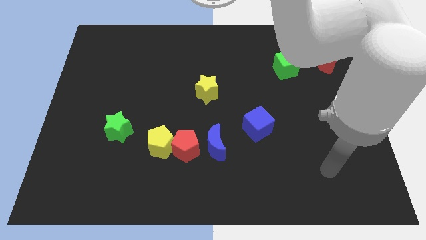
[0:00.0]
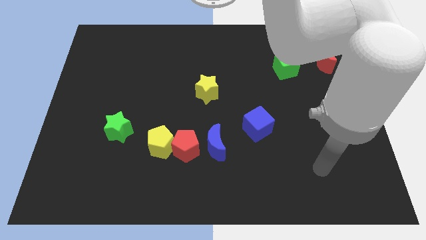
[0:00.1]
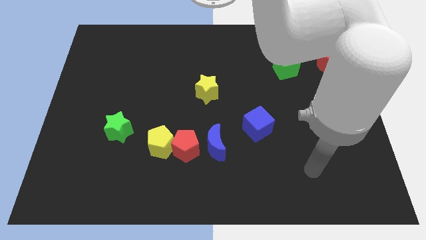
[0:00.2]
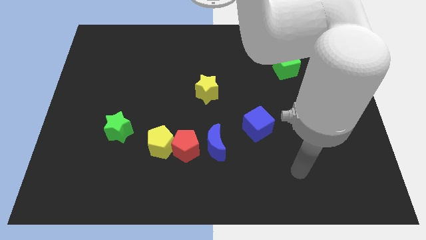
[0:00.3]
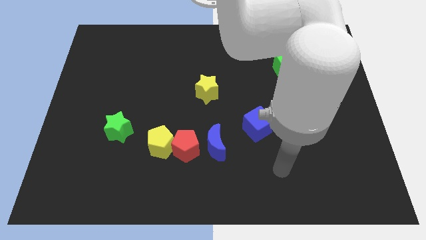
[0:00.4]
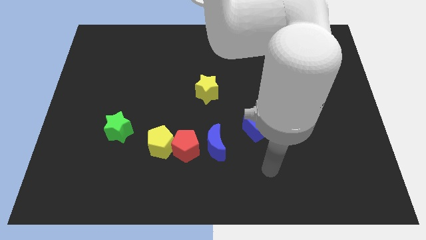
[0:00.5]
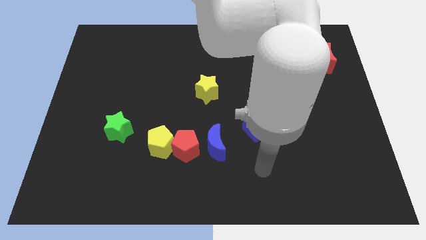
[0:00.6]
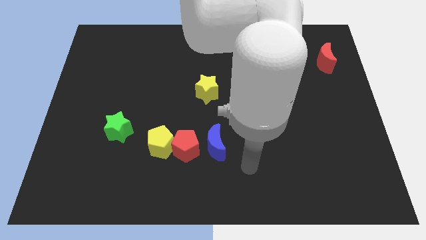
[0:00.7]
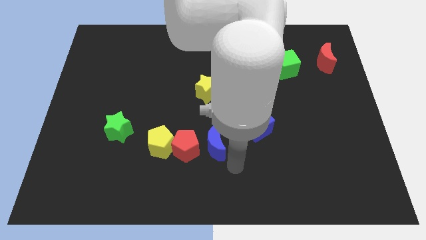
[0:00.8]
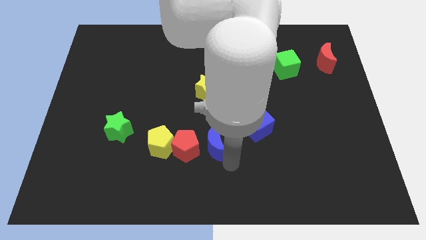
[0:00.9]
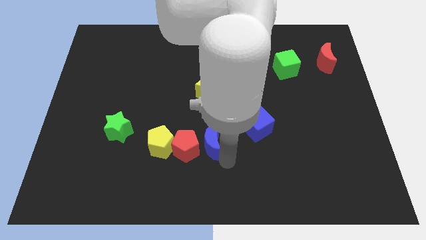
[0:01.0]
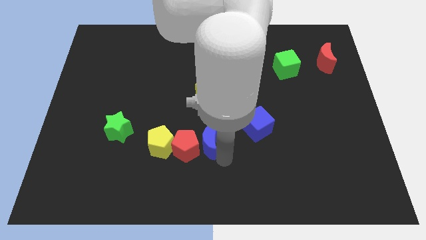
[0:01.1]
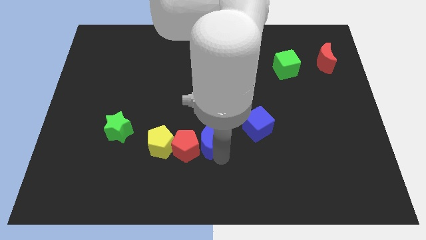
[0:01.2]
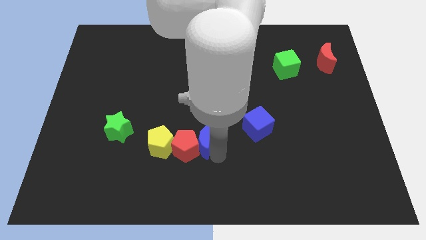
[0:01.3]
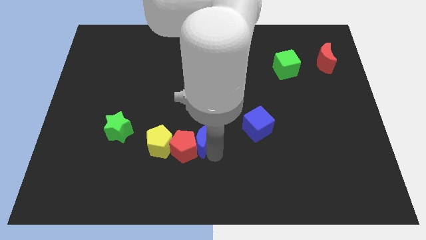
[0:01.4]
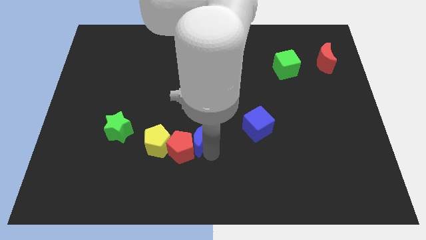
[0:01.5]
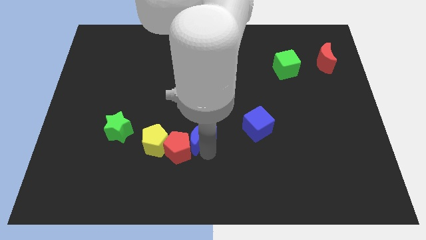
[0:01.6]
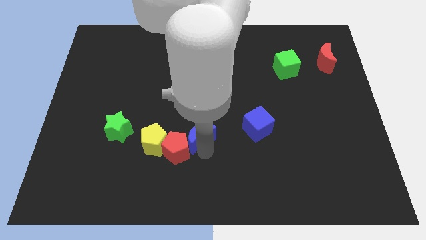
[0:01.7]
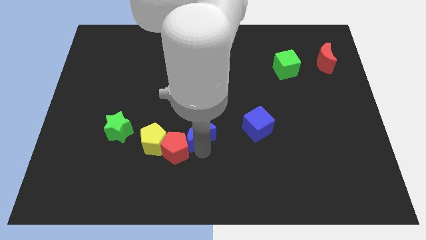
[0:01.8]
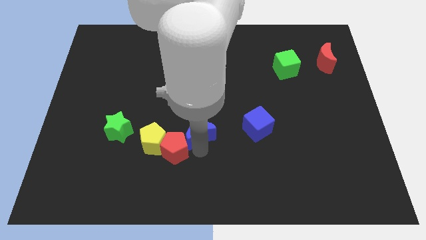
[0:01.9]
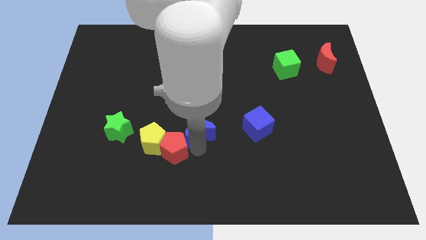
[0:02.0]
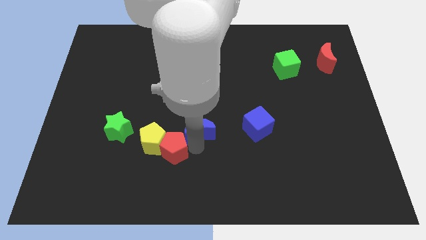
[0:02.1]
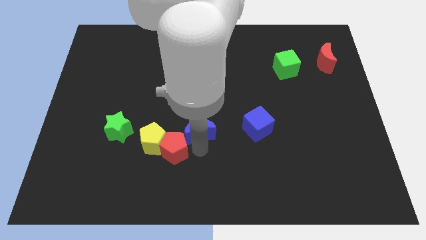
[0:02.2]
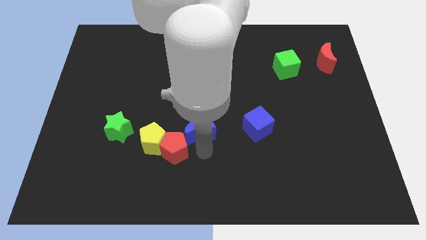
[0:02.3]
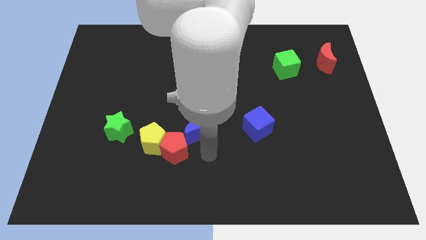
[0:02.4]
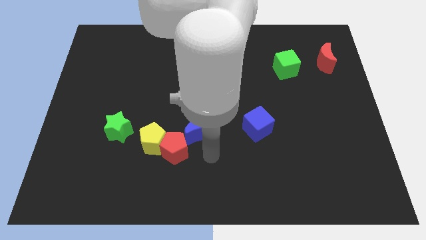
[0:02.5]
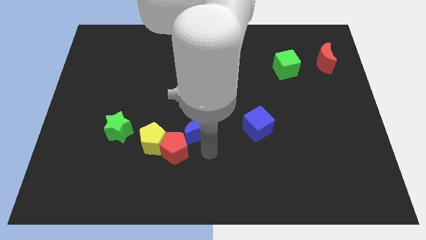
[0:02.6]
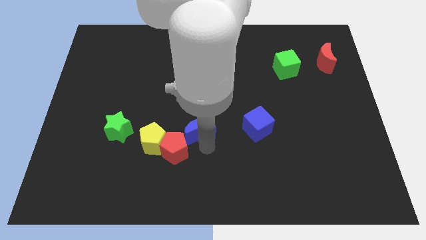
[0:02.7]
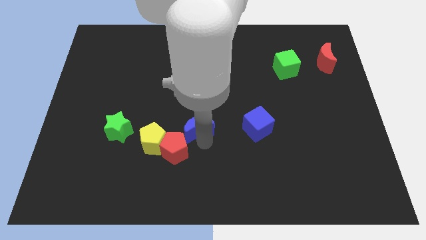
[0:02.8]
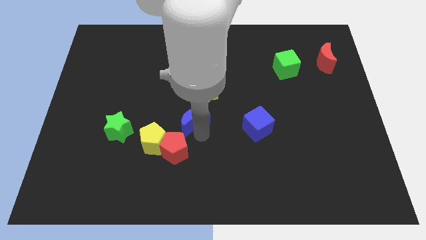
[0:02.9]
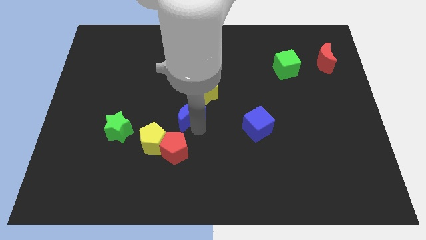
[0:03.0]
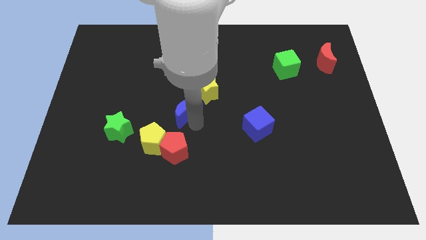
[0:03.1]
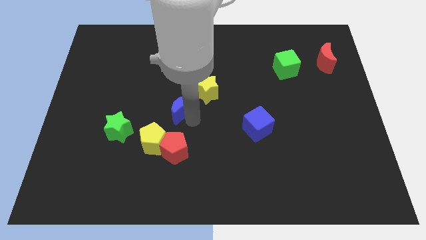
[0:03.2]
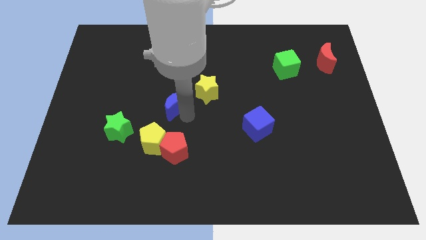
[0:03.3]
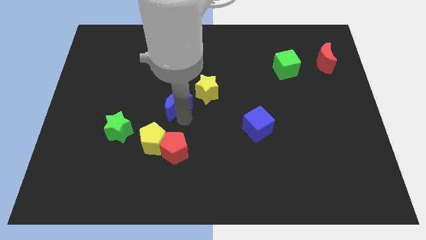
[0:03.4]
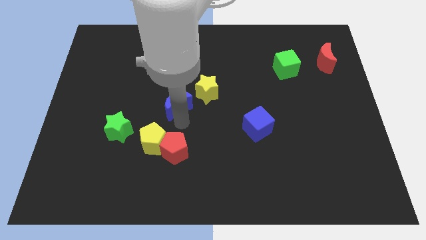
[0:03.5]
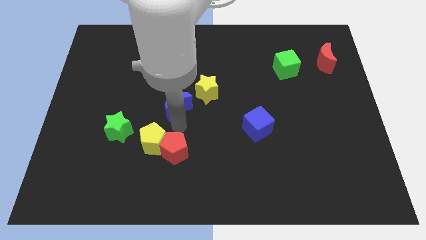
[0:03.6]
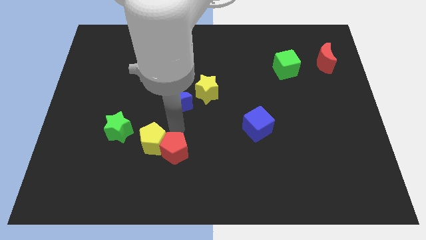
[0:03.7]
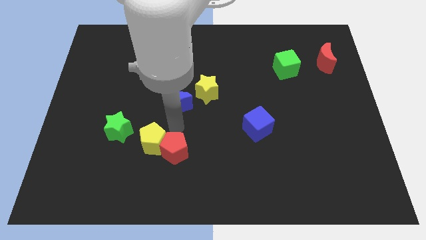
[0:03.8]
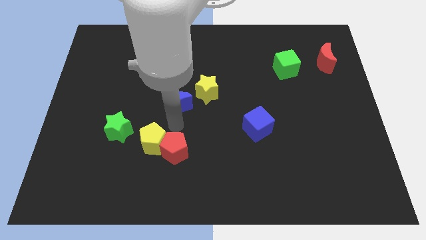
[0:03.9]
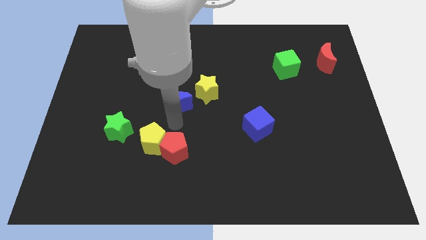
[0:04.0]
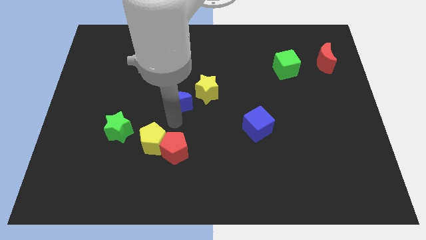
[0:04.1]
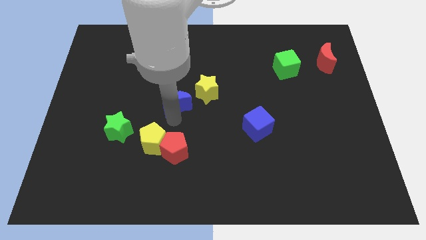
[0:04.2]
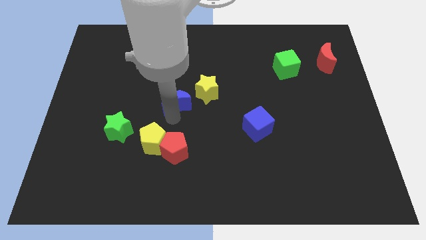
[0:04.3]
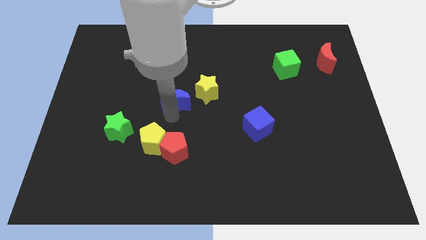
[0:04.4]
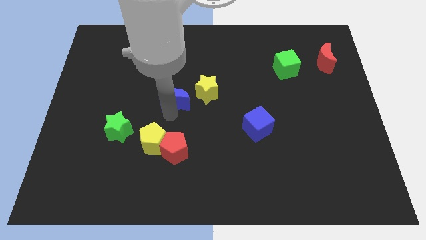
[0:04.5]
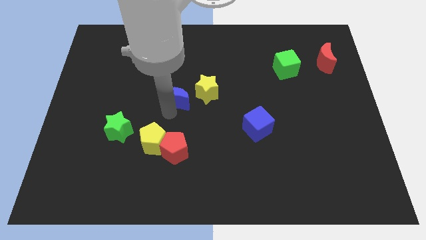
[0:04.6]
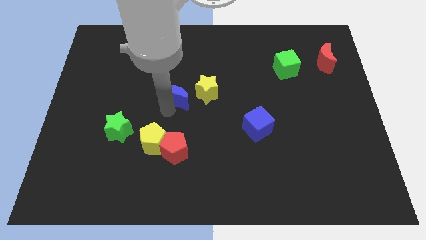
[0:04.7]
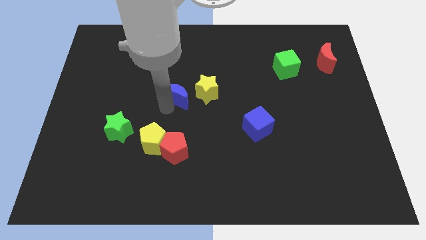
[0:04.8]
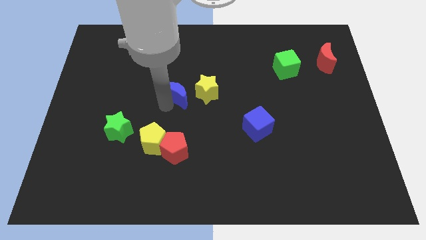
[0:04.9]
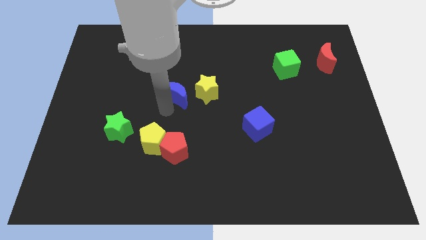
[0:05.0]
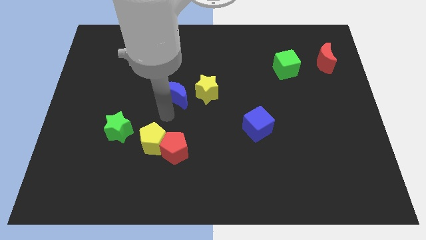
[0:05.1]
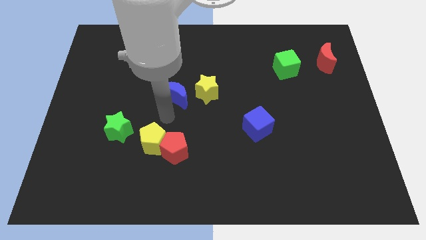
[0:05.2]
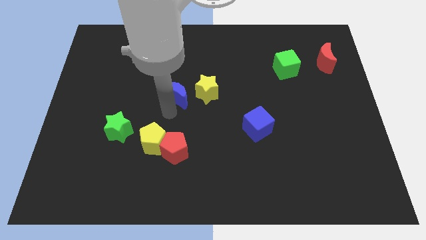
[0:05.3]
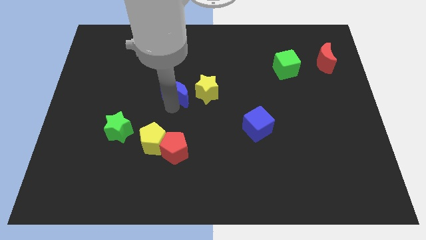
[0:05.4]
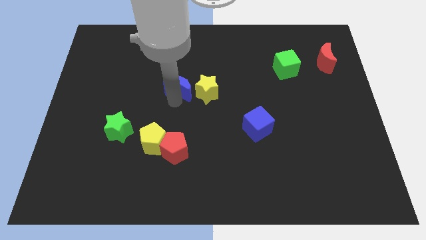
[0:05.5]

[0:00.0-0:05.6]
slide the blue moon to the top left side of the yellow star

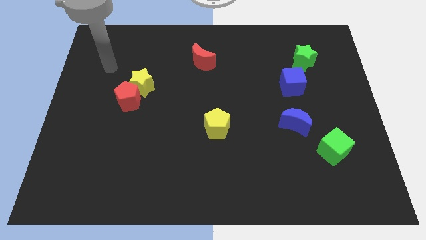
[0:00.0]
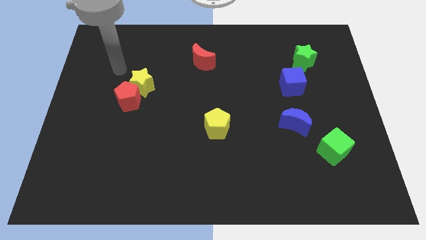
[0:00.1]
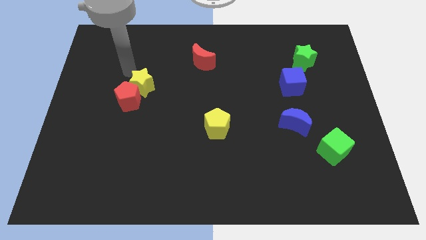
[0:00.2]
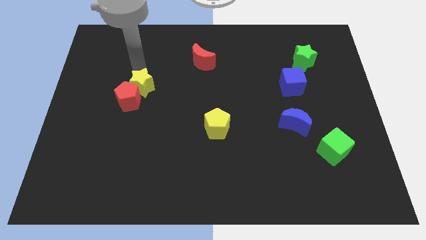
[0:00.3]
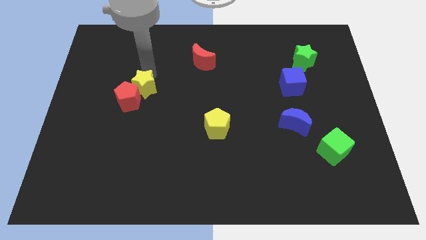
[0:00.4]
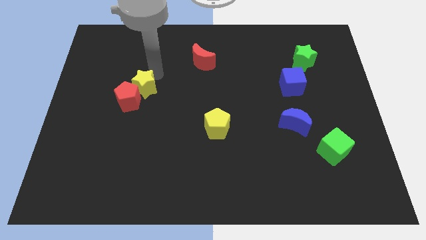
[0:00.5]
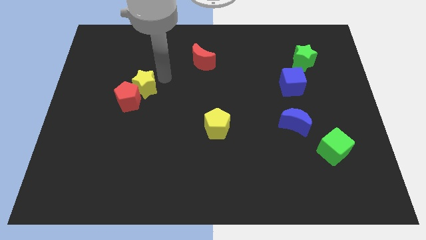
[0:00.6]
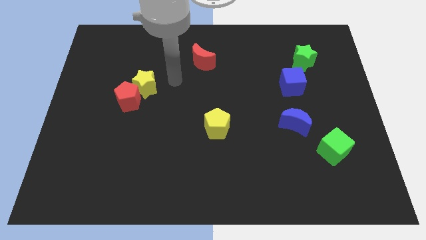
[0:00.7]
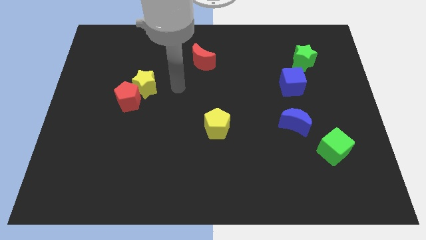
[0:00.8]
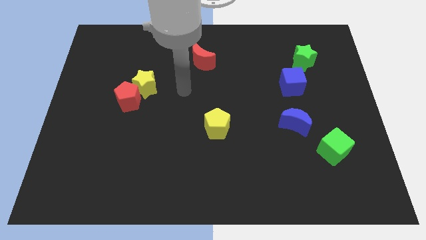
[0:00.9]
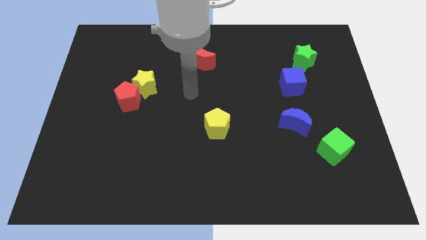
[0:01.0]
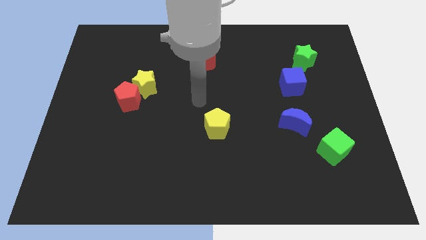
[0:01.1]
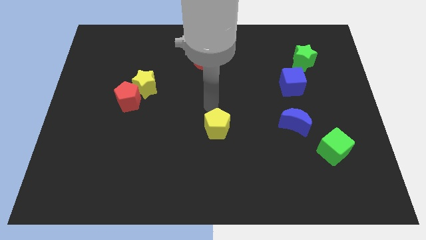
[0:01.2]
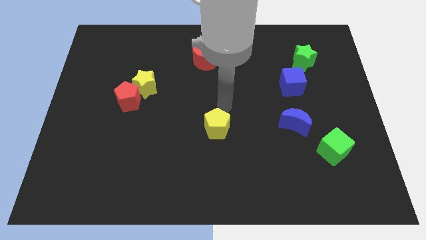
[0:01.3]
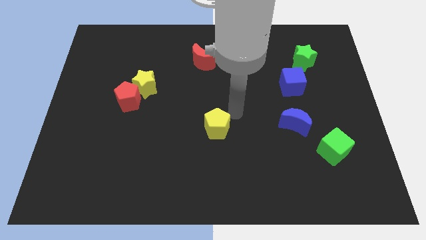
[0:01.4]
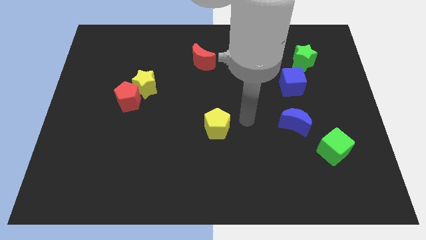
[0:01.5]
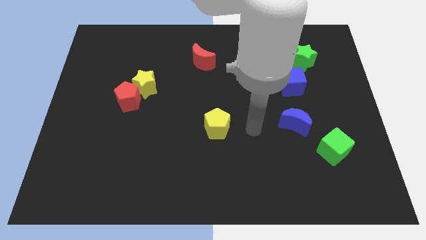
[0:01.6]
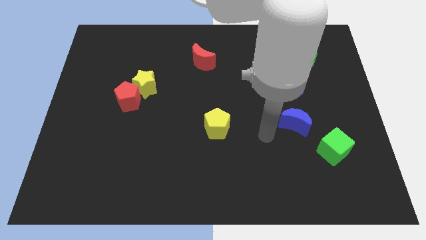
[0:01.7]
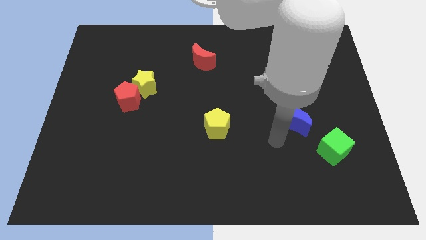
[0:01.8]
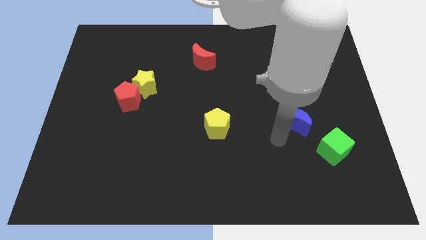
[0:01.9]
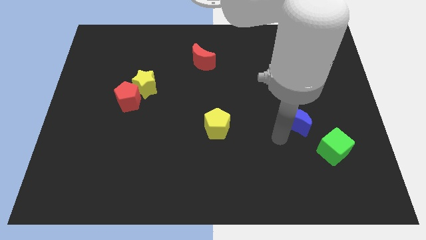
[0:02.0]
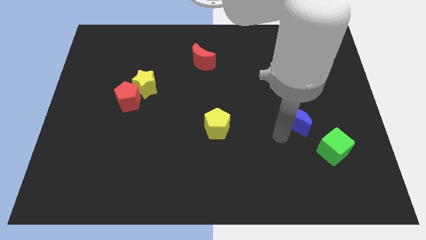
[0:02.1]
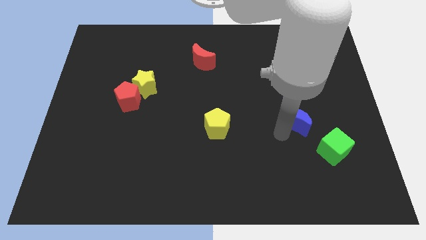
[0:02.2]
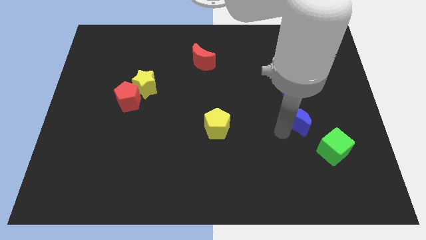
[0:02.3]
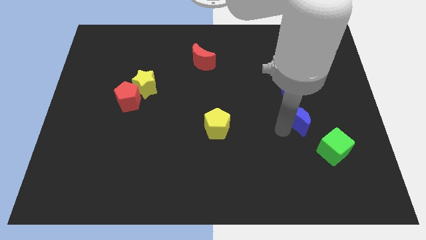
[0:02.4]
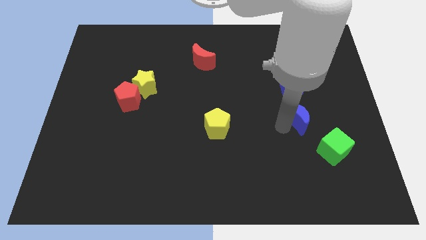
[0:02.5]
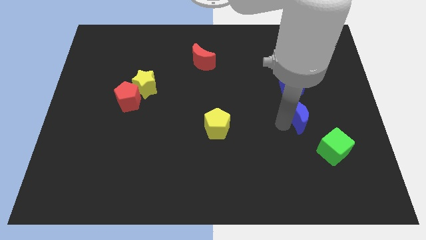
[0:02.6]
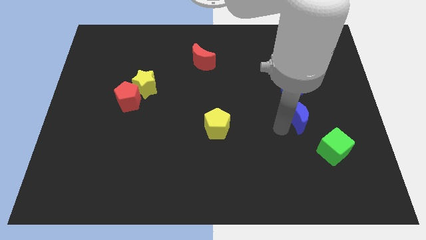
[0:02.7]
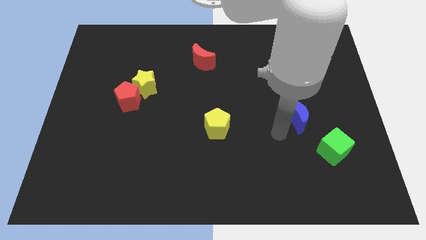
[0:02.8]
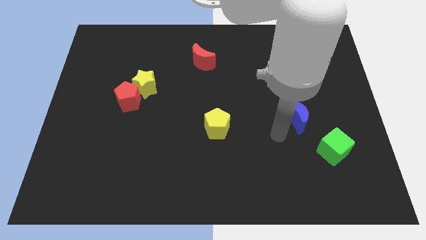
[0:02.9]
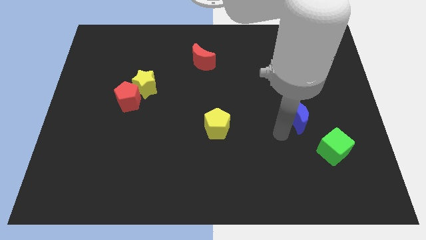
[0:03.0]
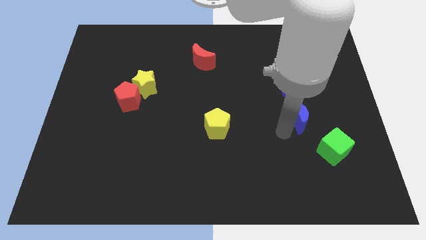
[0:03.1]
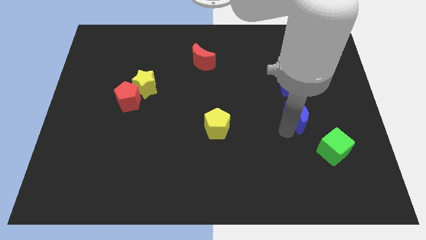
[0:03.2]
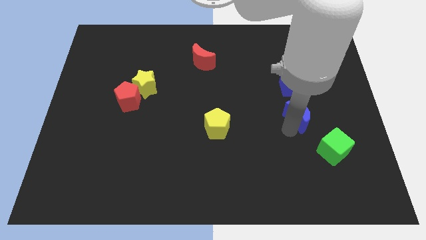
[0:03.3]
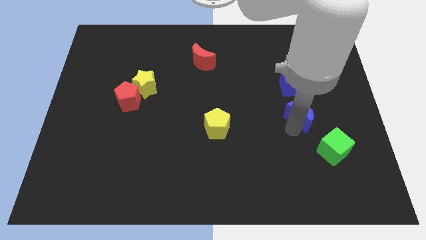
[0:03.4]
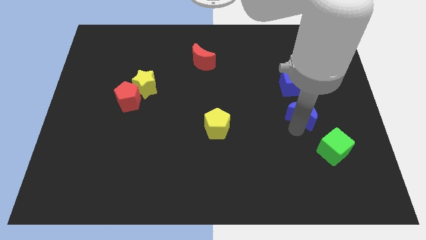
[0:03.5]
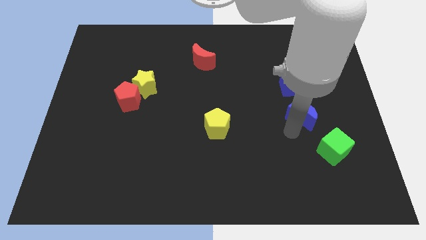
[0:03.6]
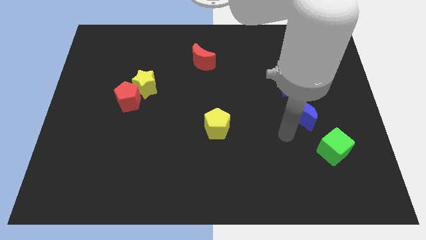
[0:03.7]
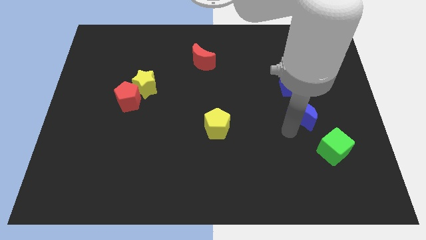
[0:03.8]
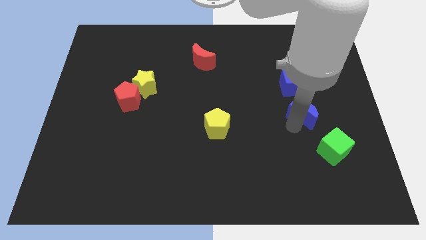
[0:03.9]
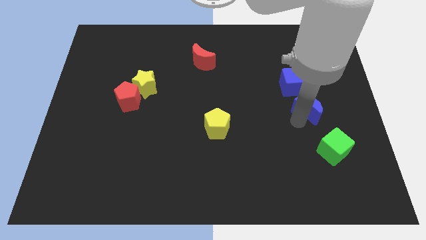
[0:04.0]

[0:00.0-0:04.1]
move the blue moon diagonally down and to the right of the blue cube
